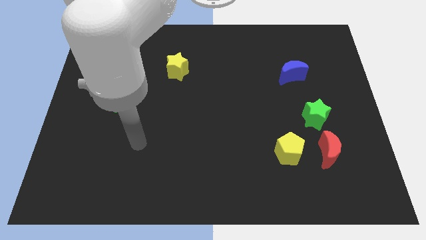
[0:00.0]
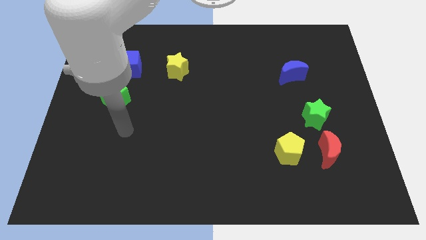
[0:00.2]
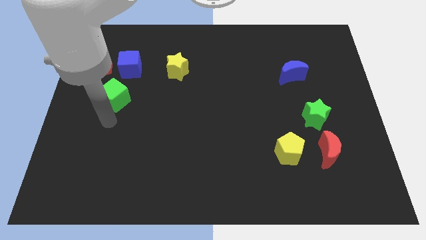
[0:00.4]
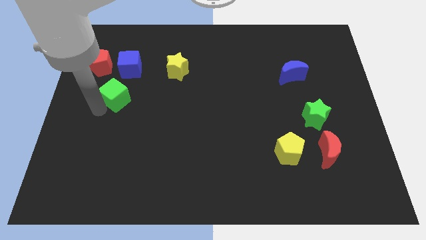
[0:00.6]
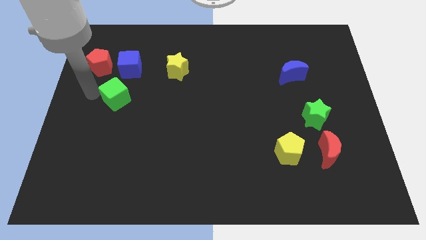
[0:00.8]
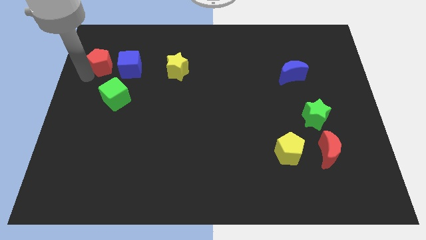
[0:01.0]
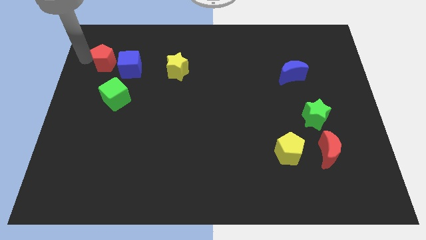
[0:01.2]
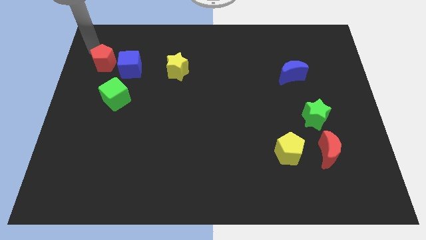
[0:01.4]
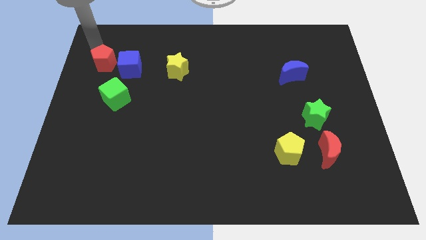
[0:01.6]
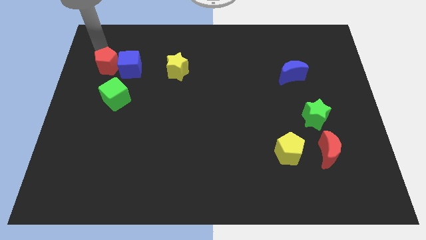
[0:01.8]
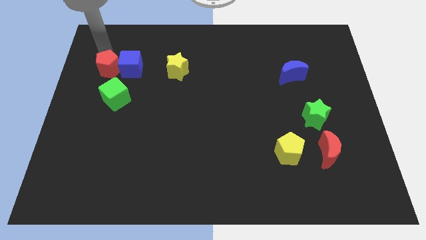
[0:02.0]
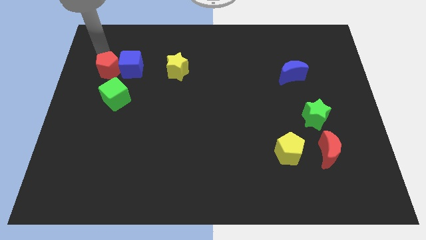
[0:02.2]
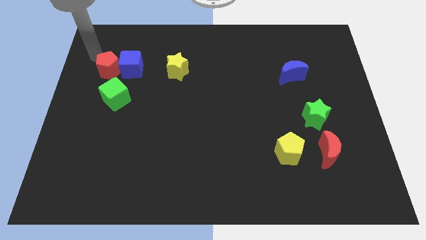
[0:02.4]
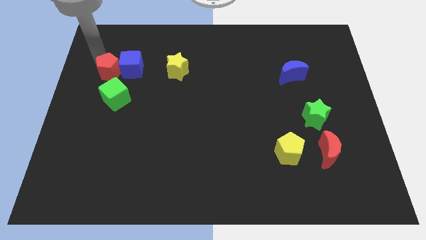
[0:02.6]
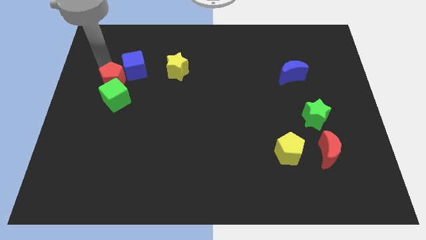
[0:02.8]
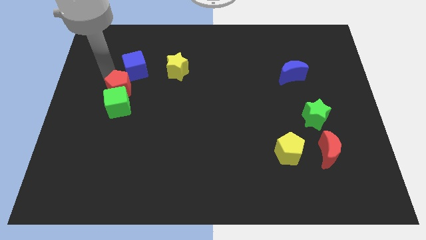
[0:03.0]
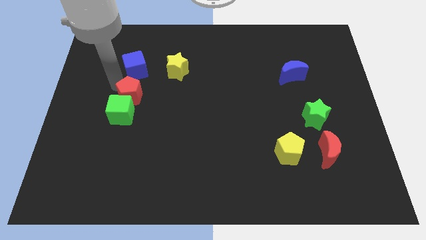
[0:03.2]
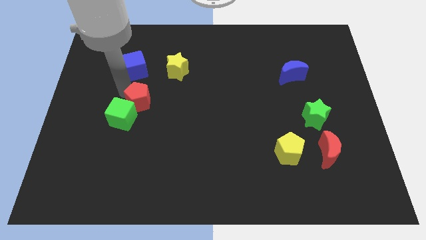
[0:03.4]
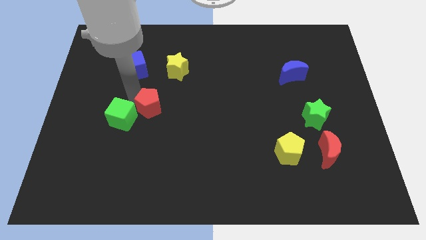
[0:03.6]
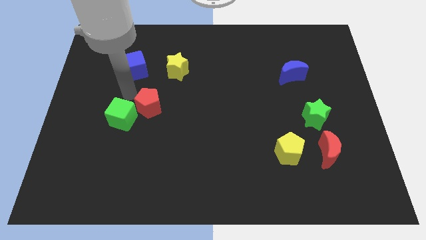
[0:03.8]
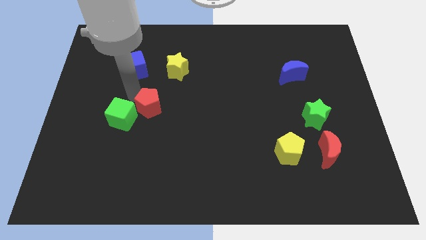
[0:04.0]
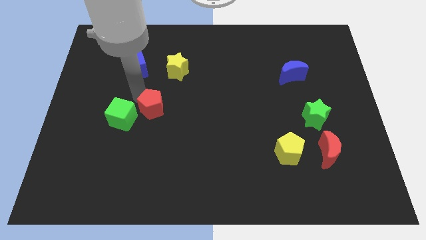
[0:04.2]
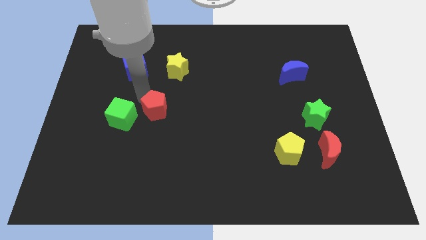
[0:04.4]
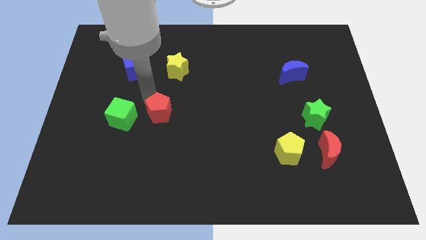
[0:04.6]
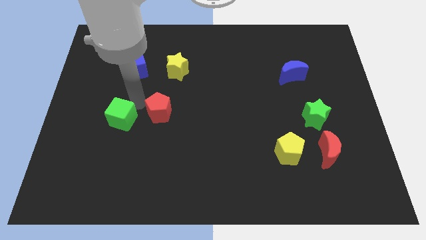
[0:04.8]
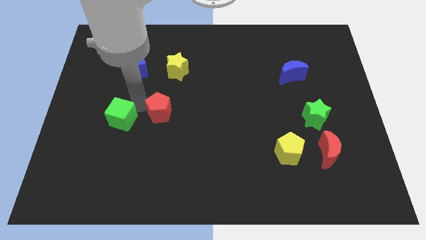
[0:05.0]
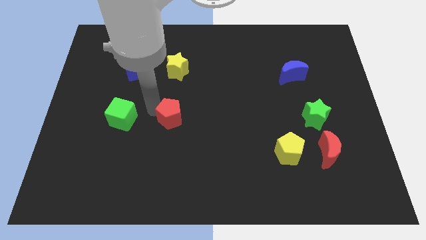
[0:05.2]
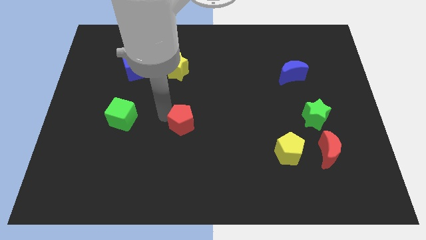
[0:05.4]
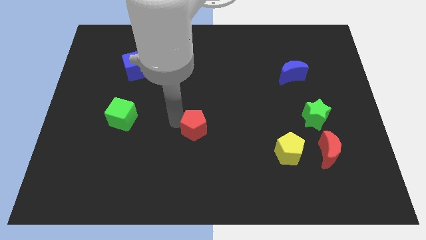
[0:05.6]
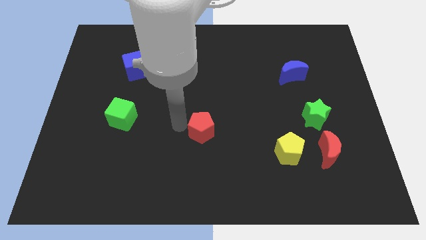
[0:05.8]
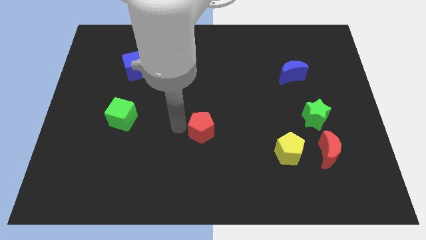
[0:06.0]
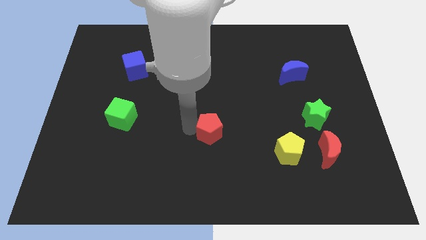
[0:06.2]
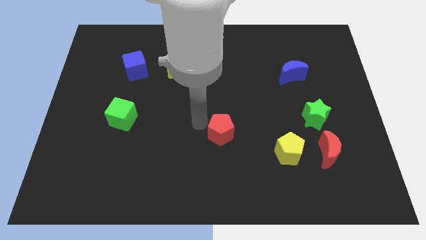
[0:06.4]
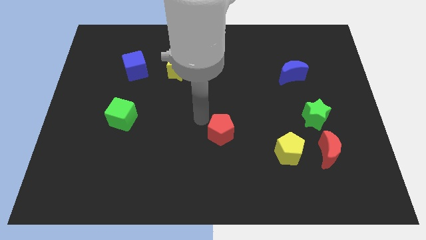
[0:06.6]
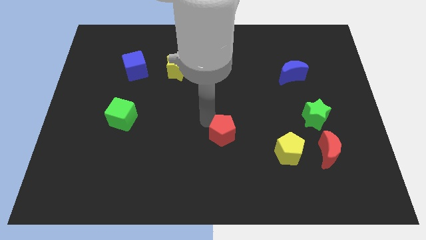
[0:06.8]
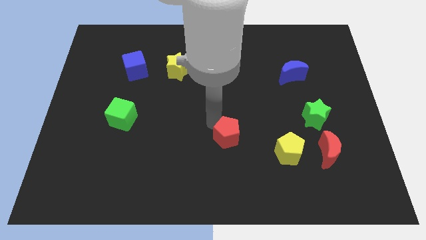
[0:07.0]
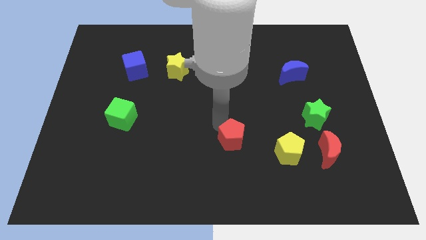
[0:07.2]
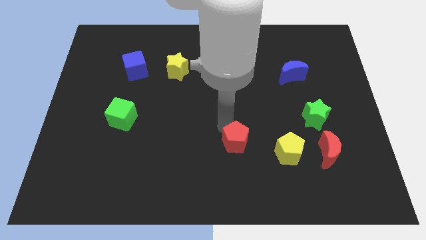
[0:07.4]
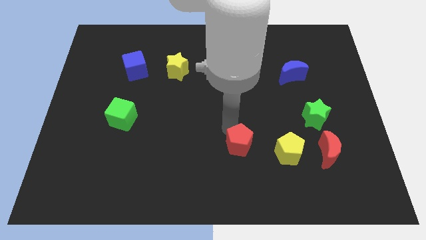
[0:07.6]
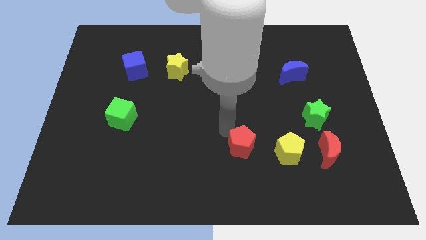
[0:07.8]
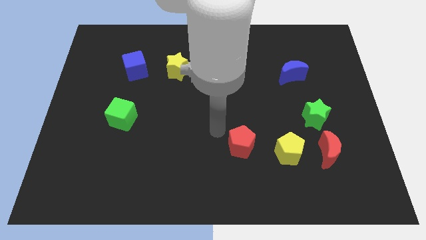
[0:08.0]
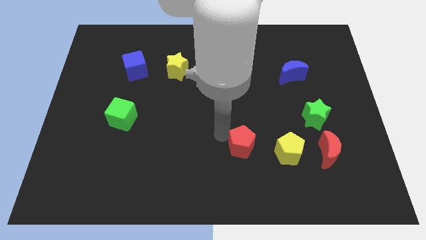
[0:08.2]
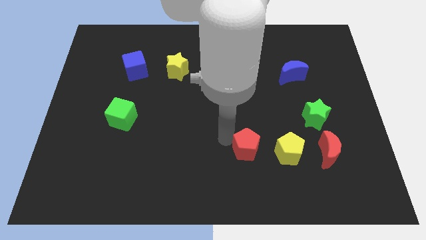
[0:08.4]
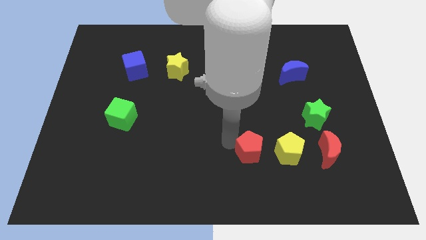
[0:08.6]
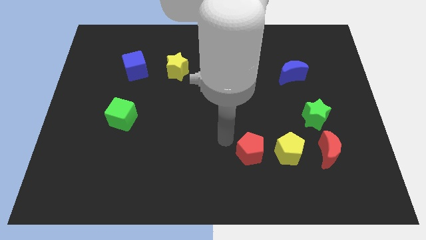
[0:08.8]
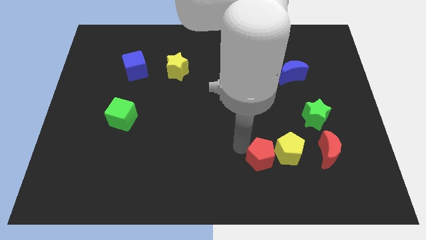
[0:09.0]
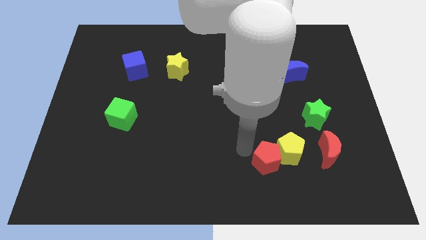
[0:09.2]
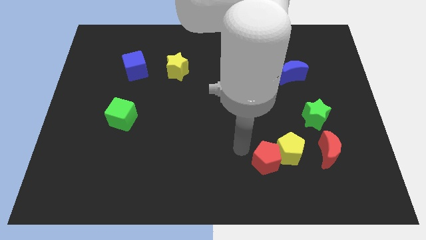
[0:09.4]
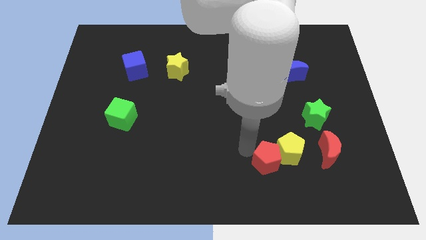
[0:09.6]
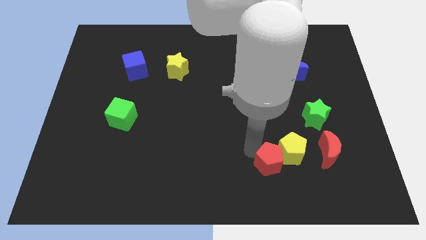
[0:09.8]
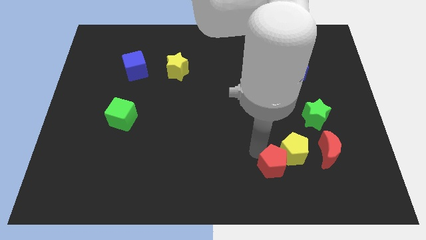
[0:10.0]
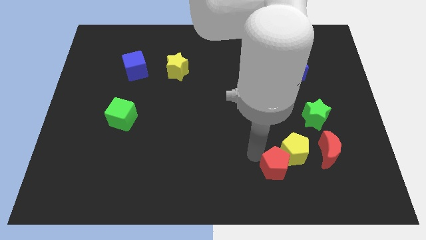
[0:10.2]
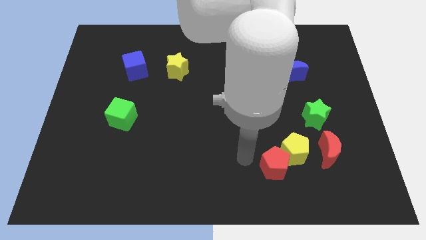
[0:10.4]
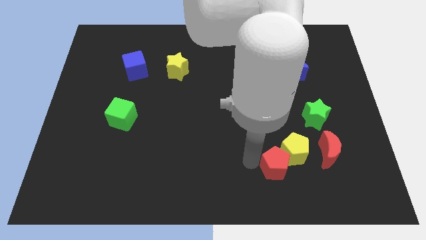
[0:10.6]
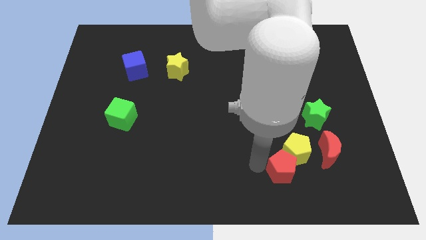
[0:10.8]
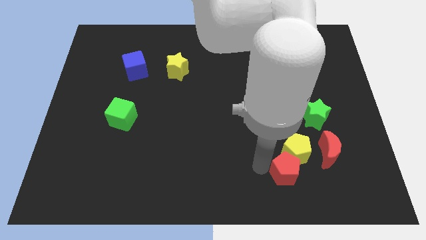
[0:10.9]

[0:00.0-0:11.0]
move the red pentagon diagonally down and to the left of the red moon

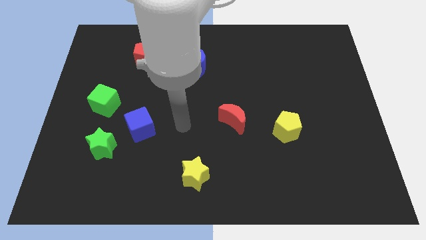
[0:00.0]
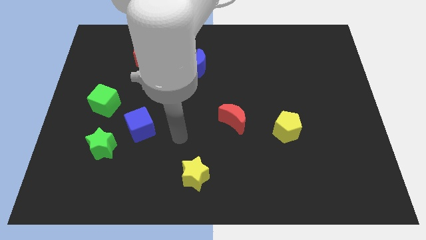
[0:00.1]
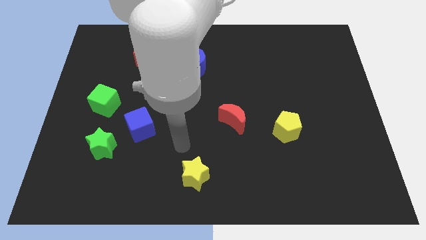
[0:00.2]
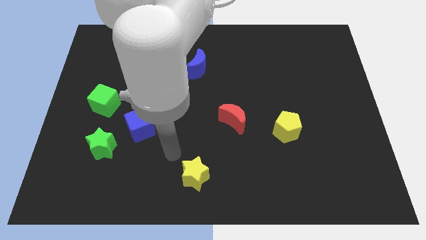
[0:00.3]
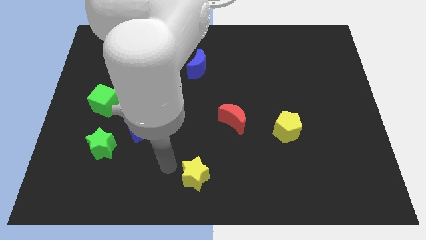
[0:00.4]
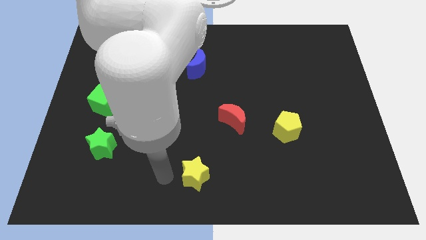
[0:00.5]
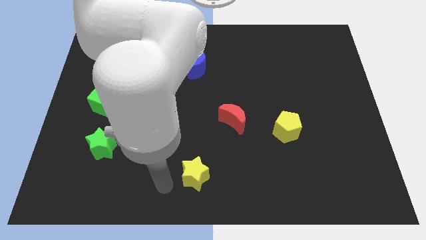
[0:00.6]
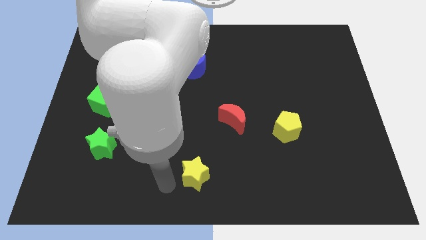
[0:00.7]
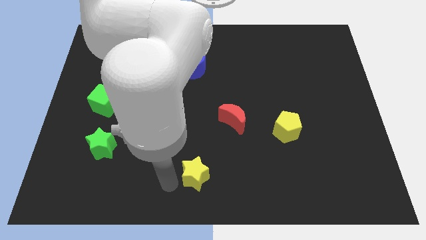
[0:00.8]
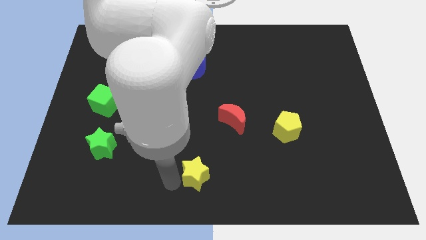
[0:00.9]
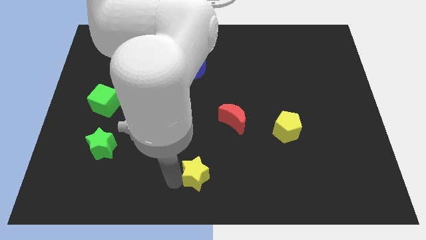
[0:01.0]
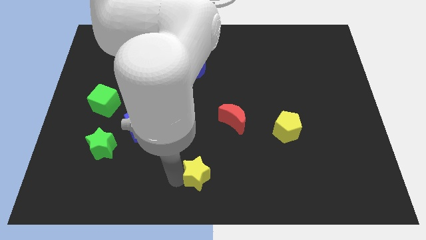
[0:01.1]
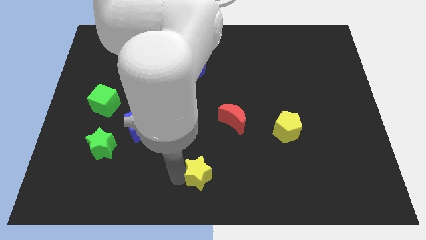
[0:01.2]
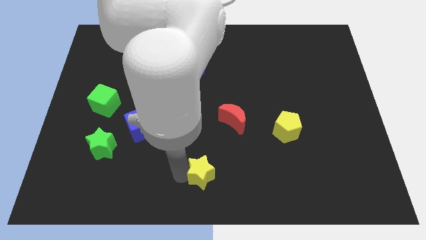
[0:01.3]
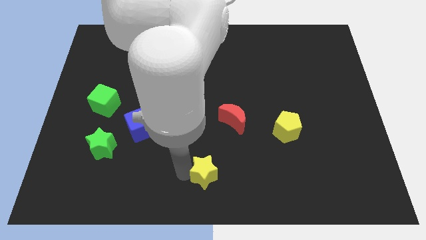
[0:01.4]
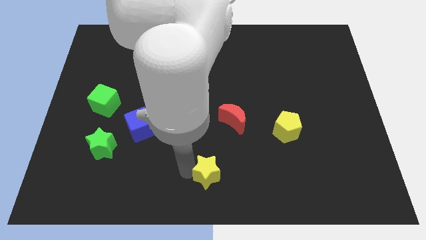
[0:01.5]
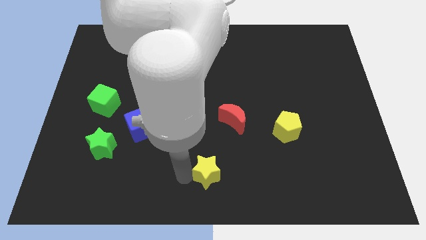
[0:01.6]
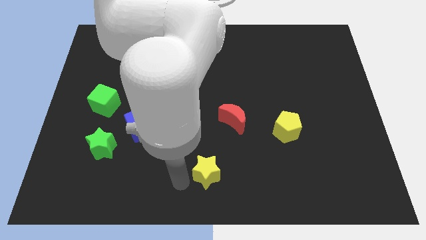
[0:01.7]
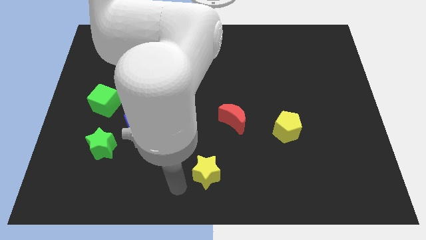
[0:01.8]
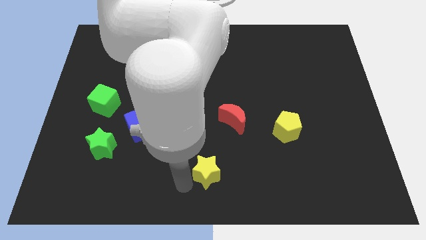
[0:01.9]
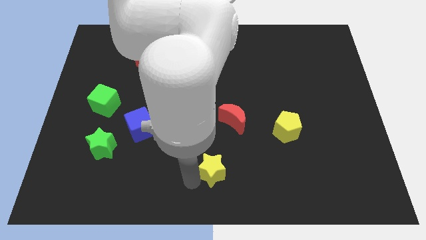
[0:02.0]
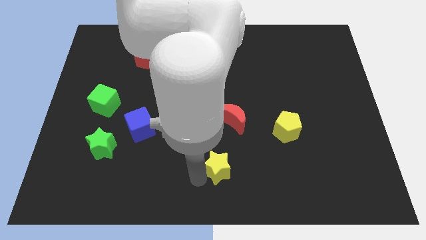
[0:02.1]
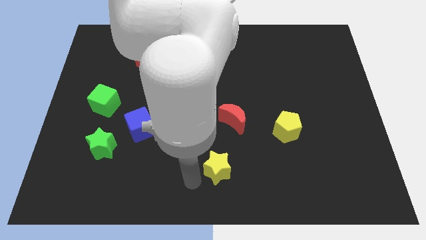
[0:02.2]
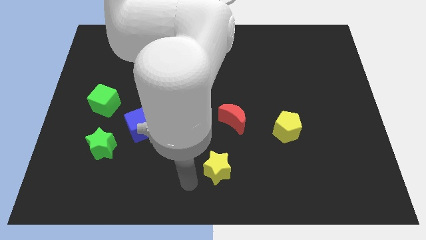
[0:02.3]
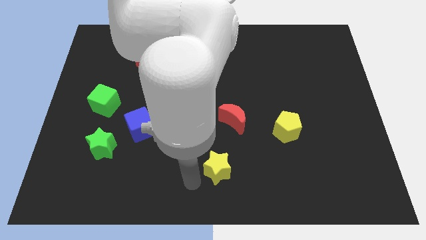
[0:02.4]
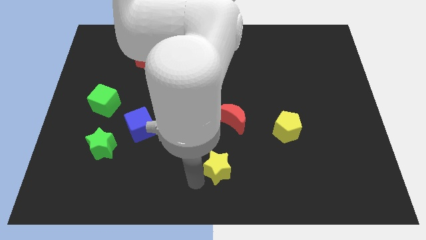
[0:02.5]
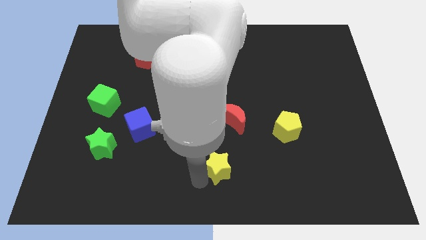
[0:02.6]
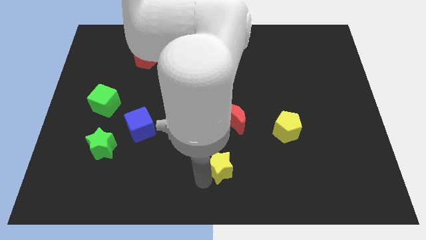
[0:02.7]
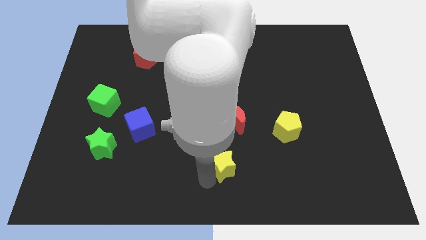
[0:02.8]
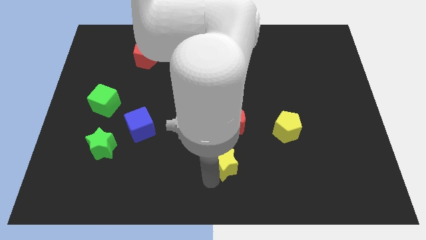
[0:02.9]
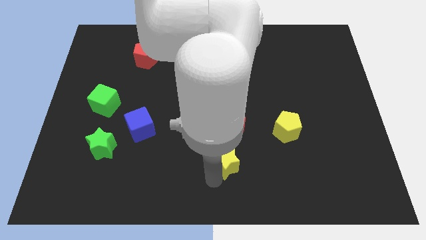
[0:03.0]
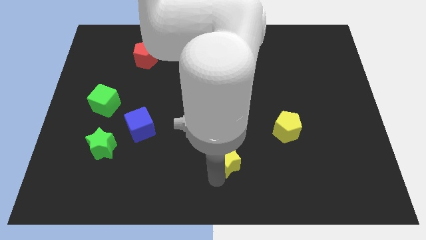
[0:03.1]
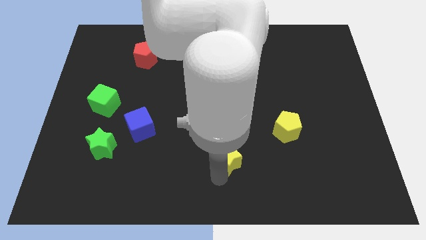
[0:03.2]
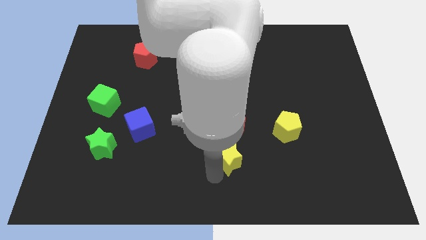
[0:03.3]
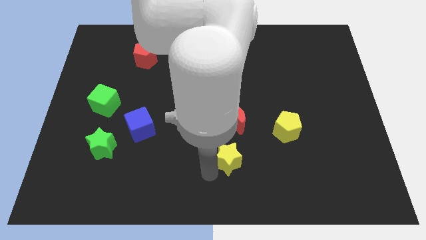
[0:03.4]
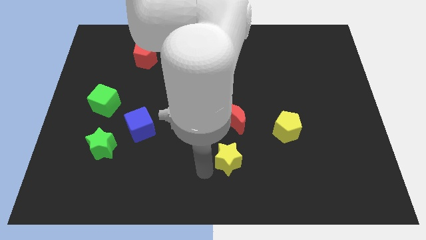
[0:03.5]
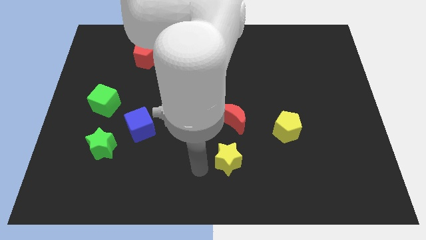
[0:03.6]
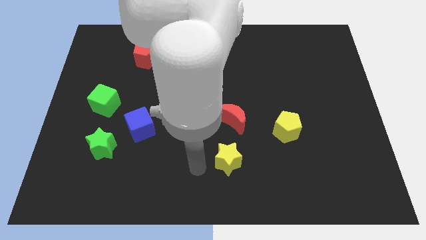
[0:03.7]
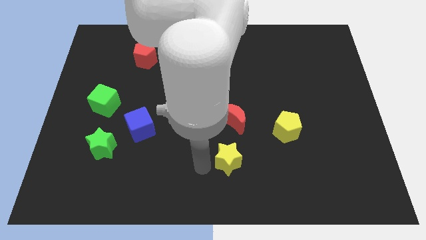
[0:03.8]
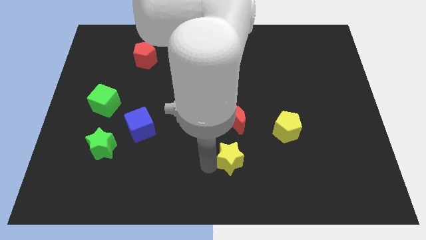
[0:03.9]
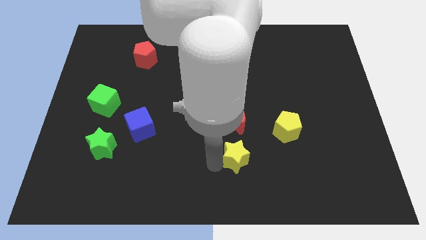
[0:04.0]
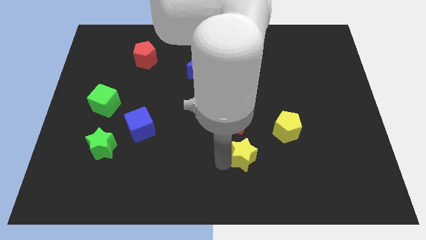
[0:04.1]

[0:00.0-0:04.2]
move the yellow star to the bottom left of the yellow pentagon
